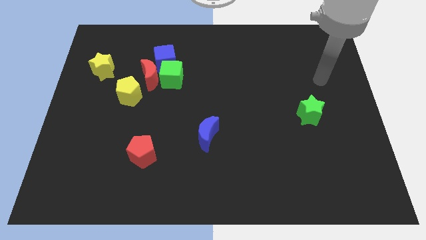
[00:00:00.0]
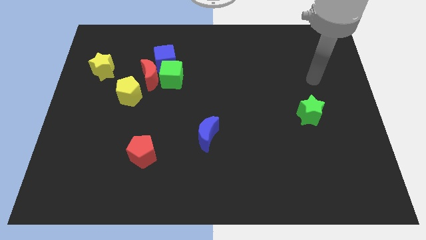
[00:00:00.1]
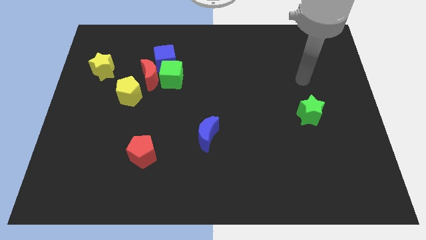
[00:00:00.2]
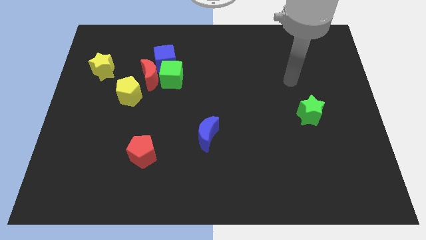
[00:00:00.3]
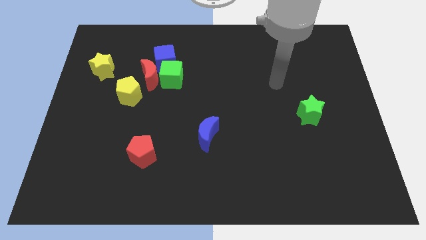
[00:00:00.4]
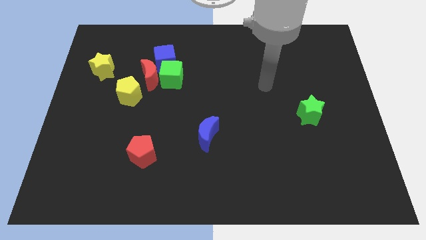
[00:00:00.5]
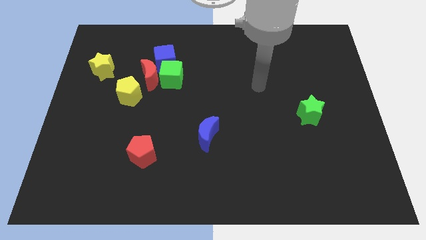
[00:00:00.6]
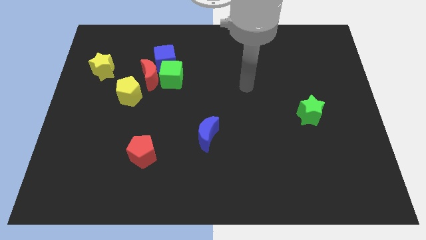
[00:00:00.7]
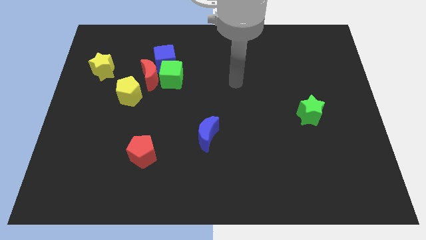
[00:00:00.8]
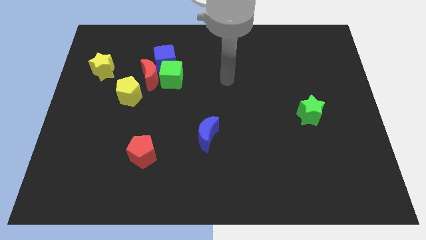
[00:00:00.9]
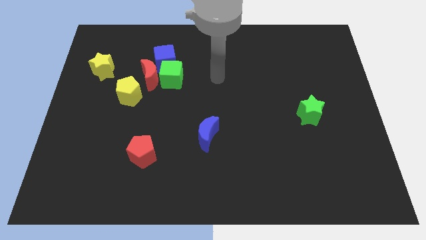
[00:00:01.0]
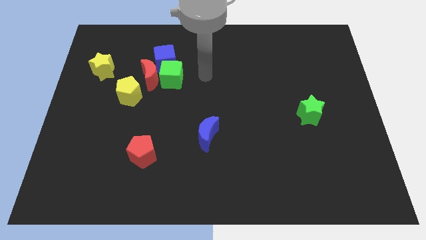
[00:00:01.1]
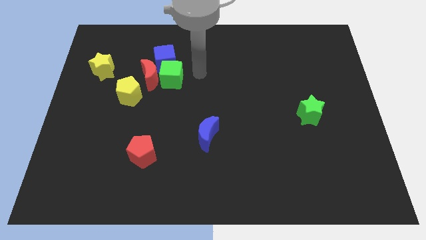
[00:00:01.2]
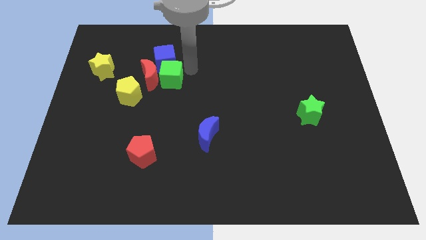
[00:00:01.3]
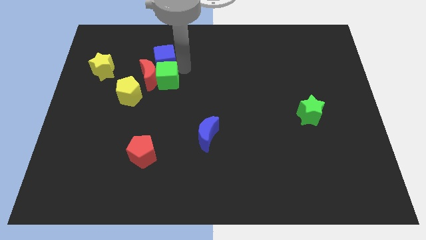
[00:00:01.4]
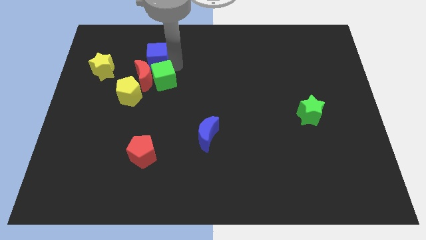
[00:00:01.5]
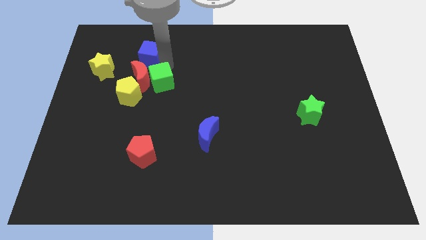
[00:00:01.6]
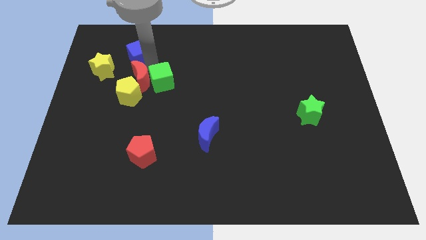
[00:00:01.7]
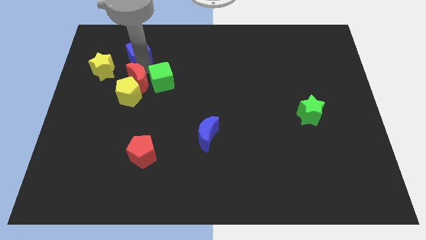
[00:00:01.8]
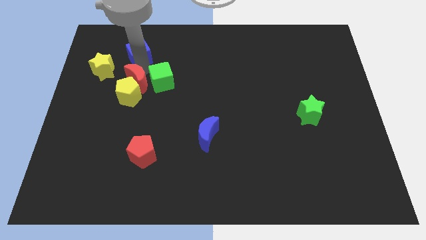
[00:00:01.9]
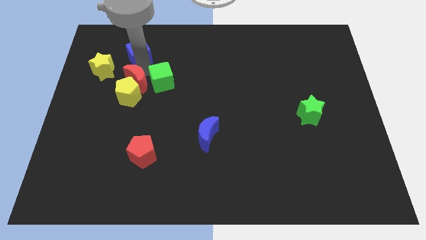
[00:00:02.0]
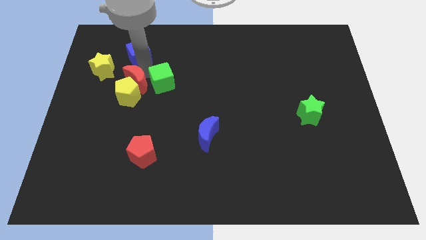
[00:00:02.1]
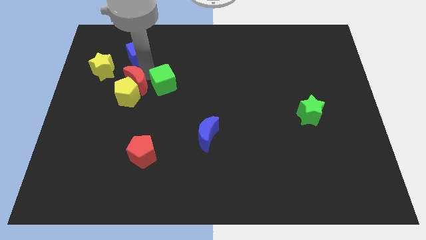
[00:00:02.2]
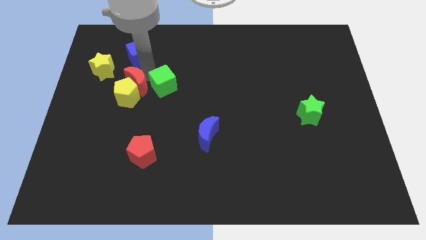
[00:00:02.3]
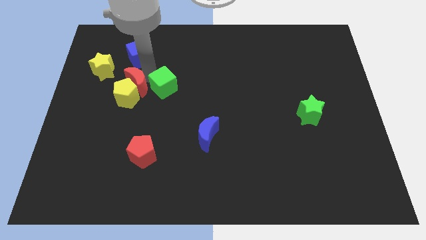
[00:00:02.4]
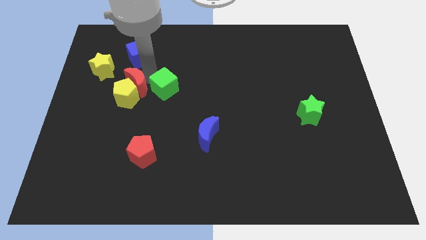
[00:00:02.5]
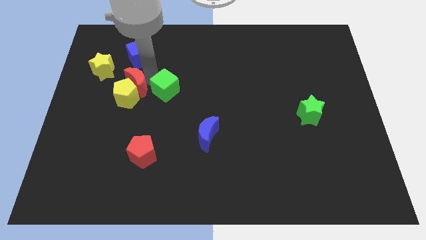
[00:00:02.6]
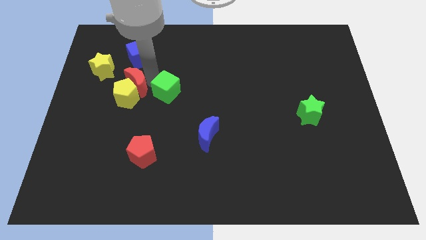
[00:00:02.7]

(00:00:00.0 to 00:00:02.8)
pull the green cube apart from the red moon and blue cube

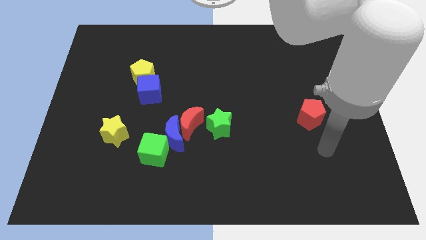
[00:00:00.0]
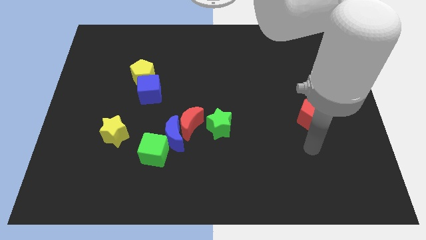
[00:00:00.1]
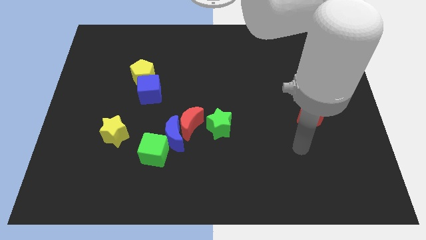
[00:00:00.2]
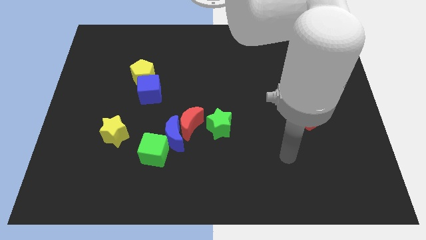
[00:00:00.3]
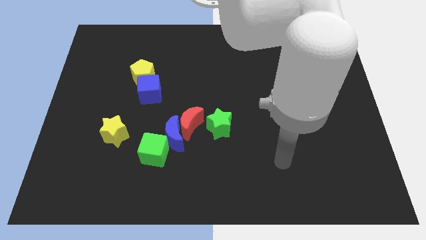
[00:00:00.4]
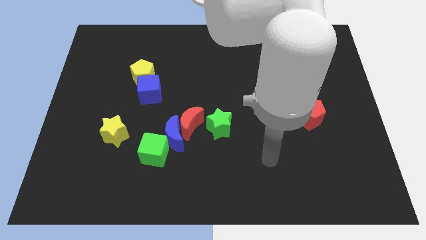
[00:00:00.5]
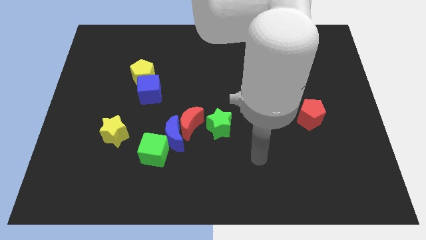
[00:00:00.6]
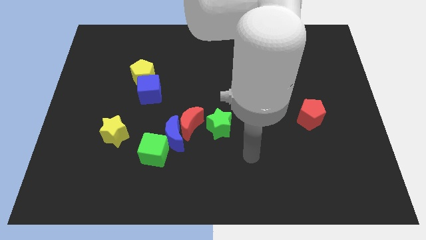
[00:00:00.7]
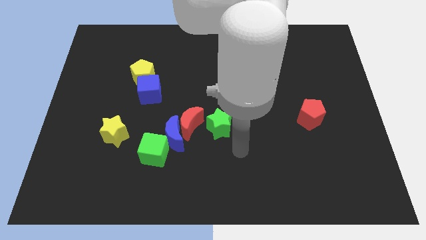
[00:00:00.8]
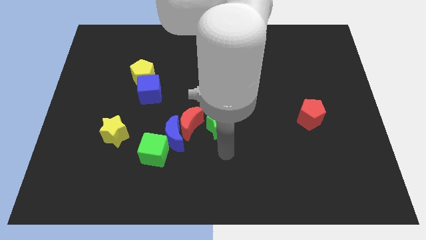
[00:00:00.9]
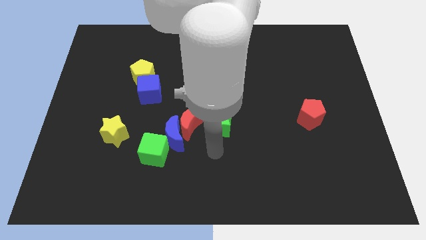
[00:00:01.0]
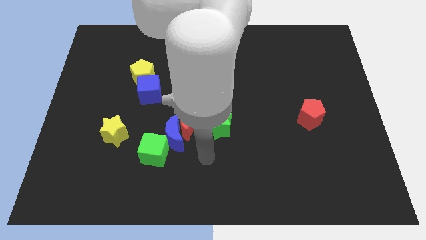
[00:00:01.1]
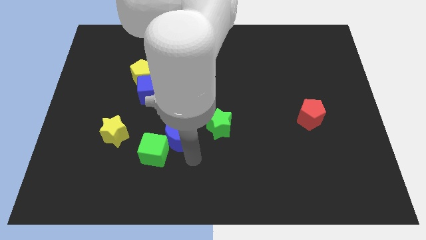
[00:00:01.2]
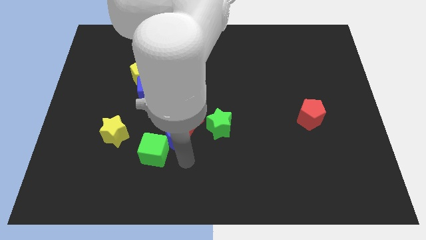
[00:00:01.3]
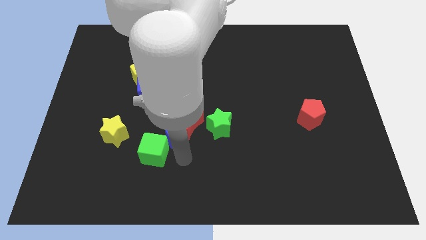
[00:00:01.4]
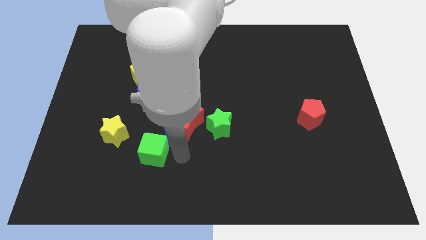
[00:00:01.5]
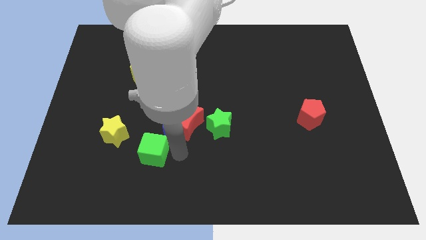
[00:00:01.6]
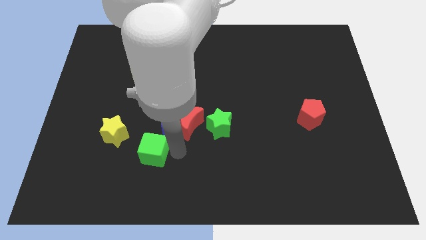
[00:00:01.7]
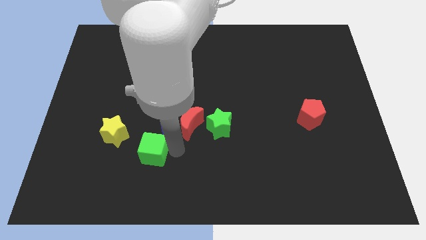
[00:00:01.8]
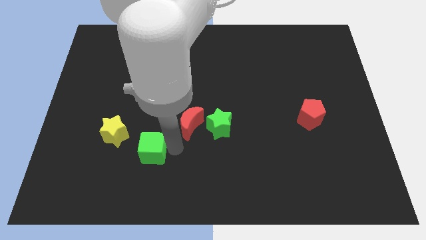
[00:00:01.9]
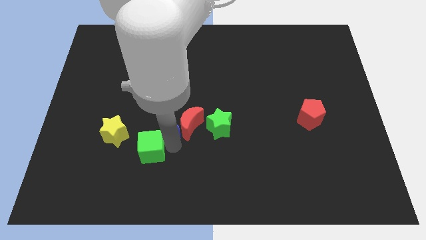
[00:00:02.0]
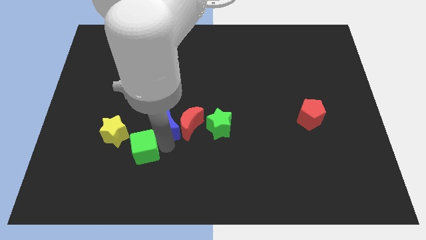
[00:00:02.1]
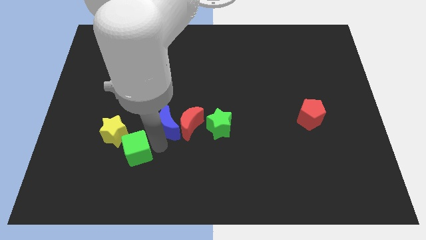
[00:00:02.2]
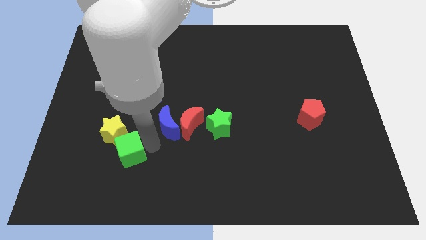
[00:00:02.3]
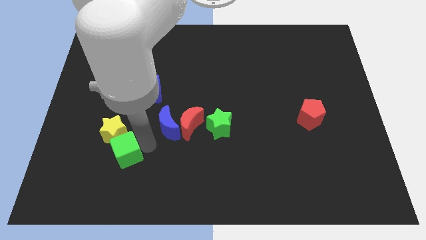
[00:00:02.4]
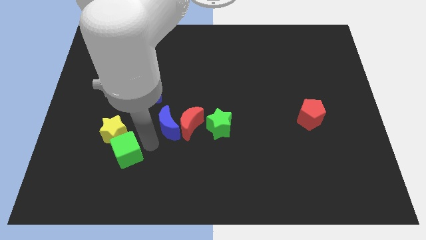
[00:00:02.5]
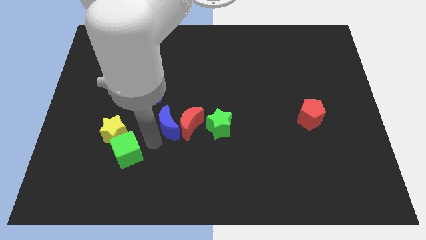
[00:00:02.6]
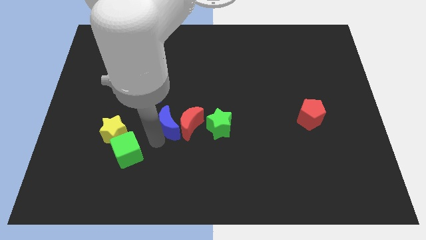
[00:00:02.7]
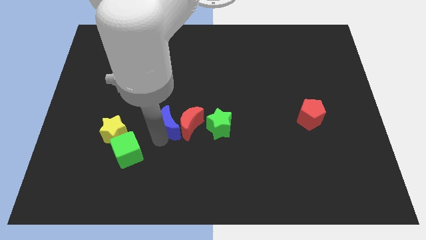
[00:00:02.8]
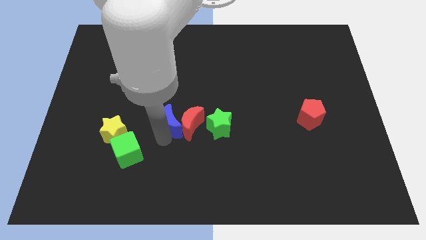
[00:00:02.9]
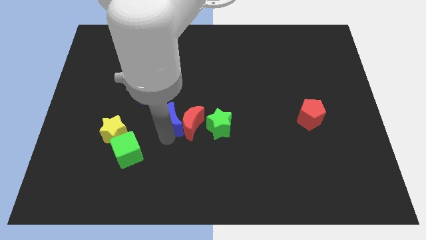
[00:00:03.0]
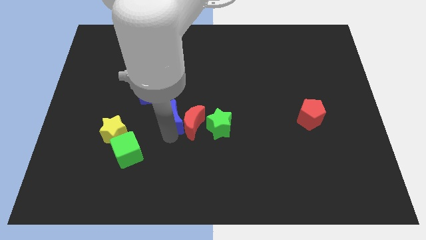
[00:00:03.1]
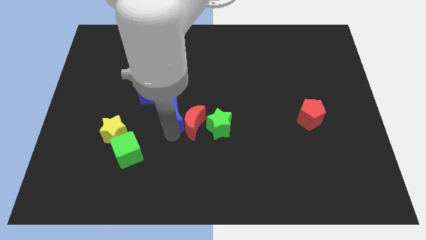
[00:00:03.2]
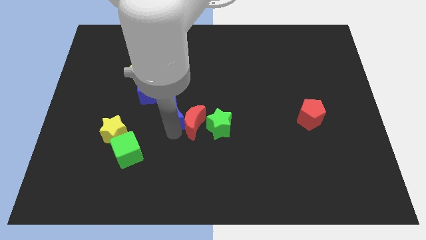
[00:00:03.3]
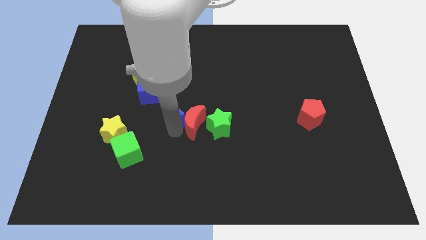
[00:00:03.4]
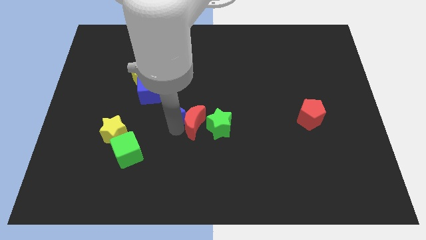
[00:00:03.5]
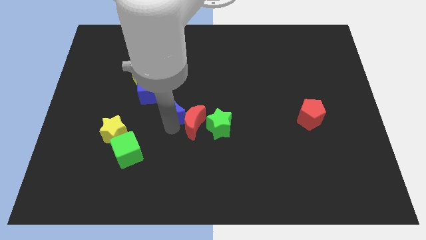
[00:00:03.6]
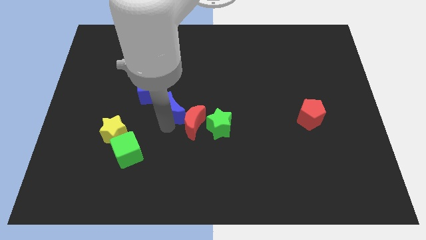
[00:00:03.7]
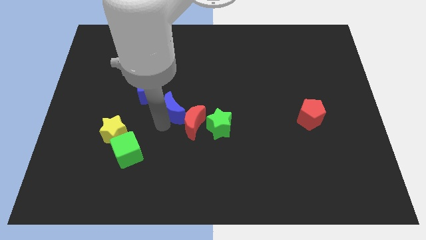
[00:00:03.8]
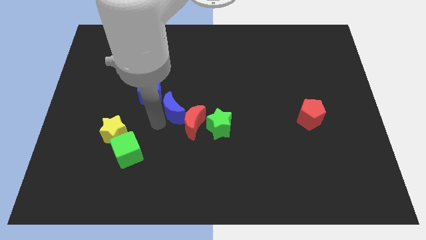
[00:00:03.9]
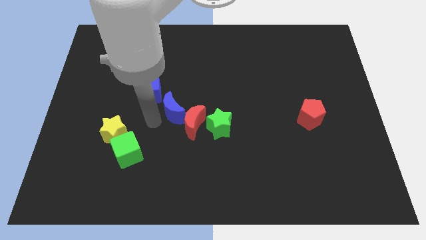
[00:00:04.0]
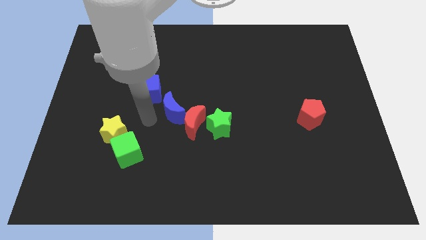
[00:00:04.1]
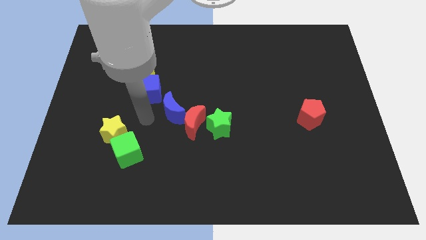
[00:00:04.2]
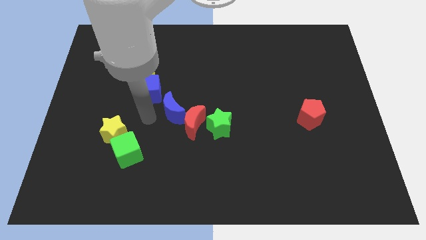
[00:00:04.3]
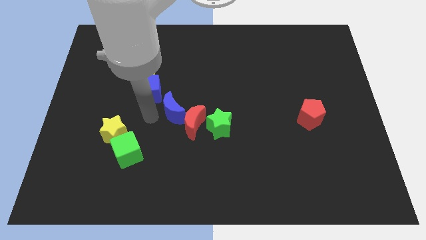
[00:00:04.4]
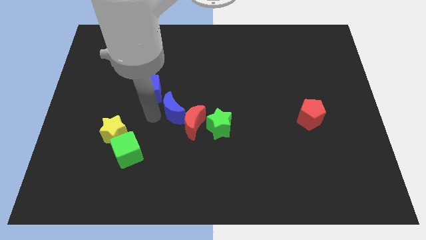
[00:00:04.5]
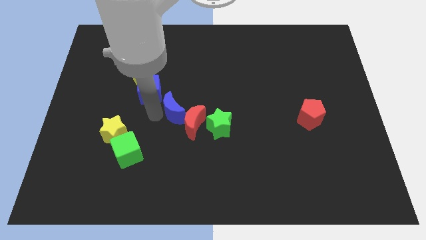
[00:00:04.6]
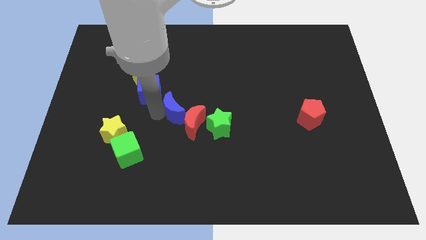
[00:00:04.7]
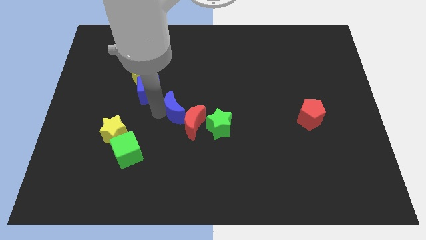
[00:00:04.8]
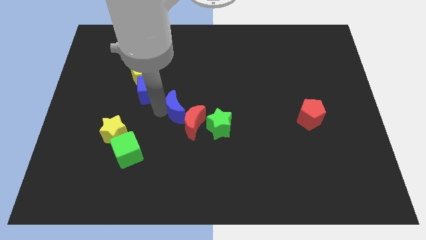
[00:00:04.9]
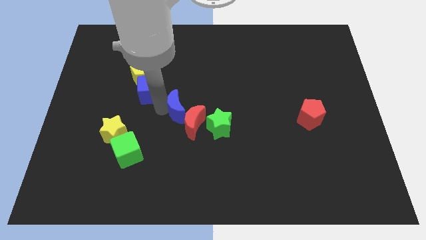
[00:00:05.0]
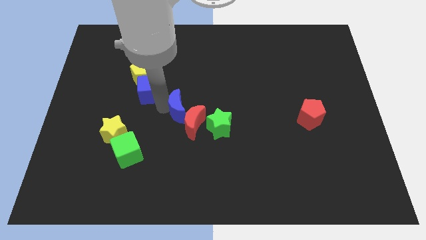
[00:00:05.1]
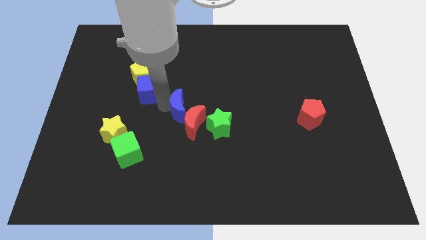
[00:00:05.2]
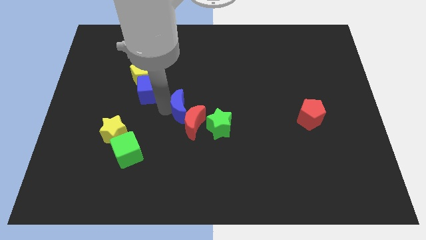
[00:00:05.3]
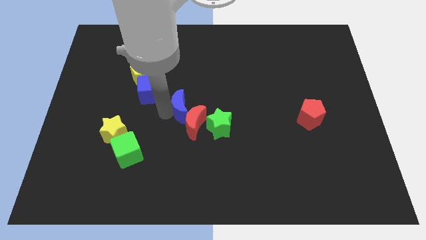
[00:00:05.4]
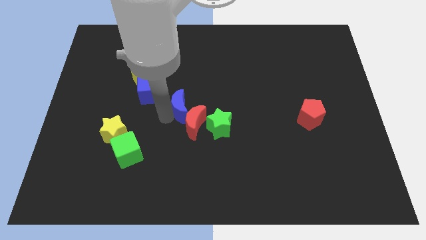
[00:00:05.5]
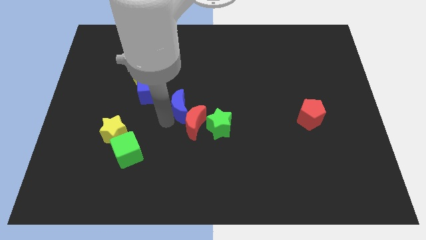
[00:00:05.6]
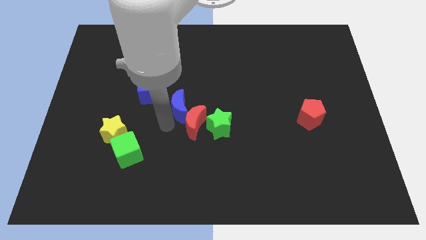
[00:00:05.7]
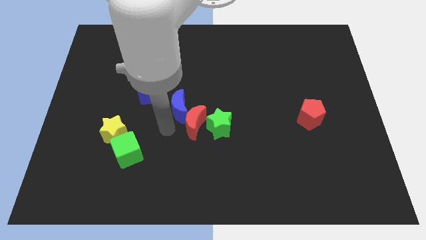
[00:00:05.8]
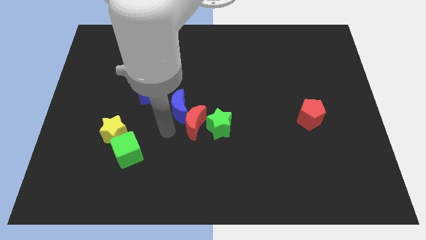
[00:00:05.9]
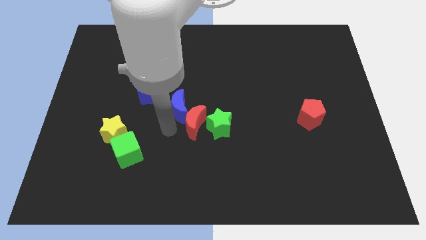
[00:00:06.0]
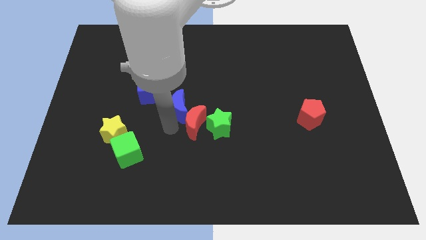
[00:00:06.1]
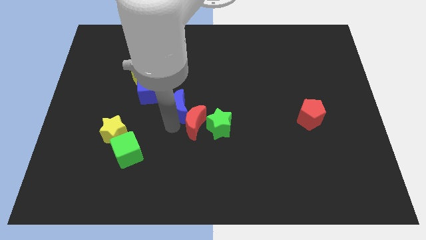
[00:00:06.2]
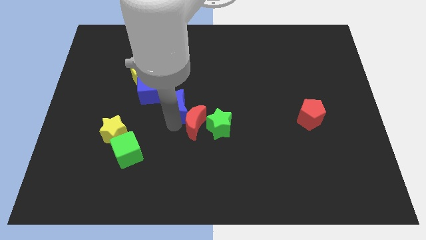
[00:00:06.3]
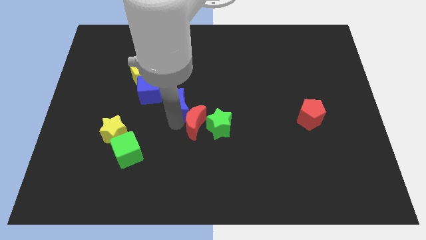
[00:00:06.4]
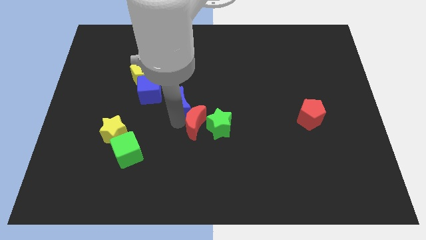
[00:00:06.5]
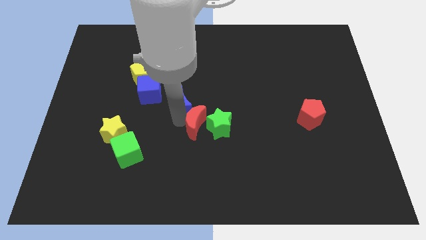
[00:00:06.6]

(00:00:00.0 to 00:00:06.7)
pull the blue moon apart from the red moon and green cube
